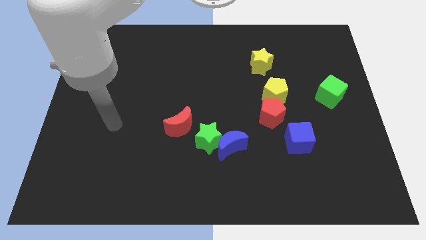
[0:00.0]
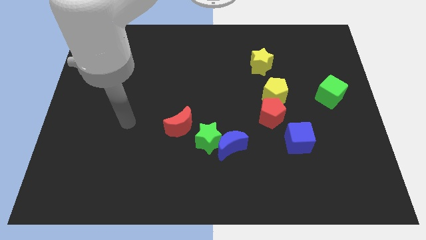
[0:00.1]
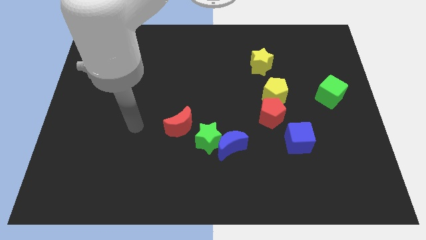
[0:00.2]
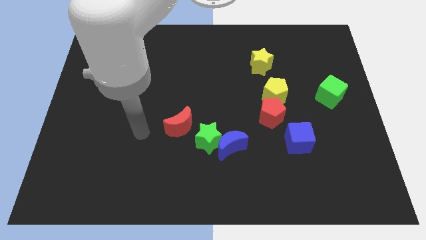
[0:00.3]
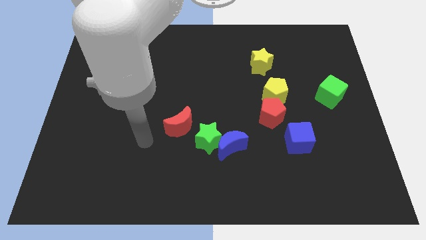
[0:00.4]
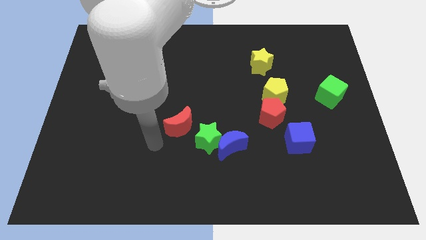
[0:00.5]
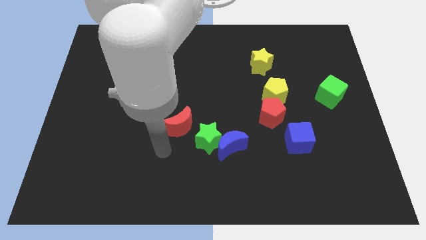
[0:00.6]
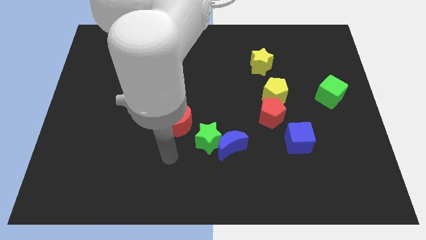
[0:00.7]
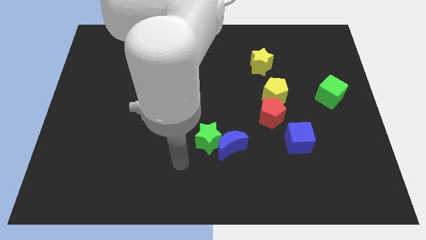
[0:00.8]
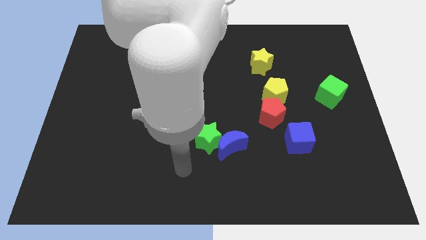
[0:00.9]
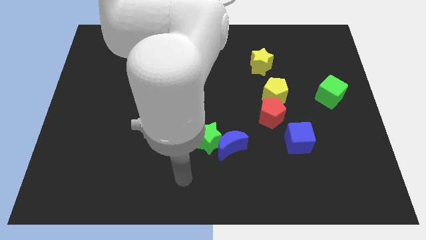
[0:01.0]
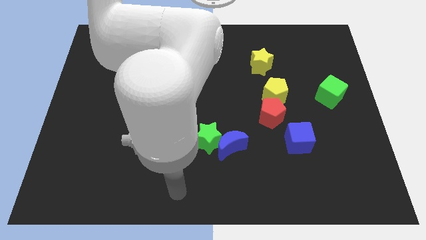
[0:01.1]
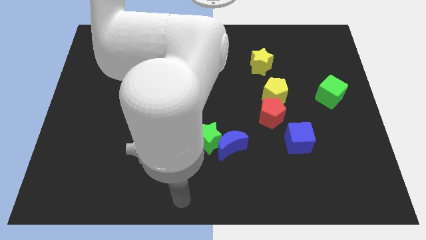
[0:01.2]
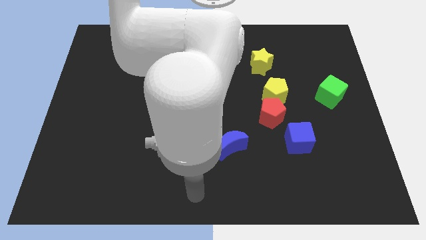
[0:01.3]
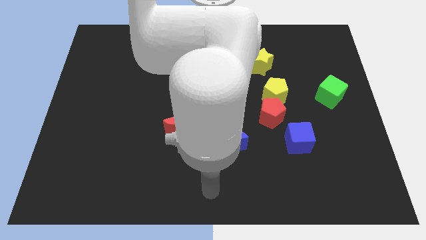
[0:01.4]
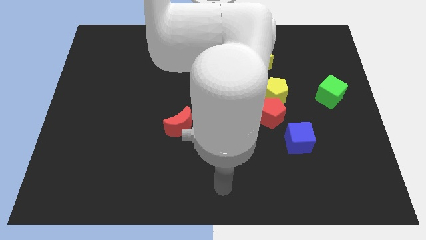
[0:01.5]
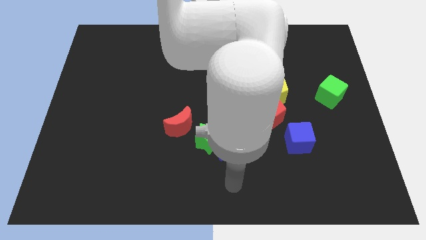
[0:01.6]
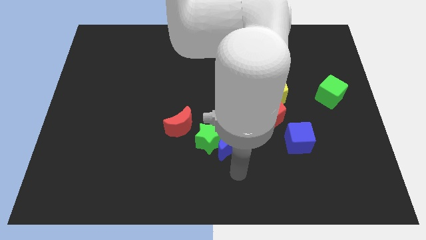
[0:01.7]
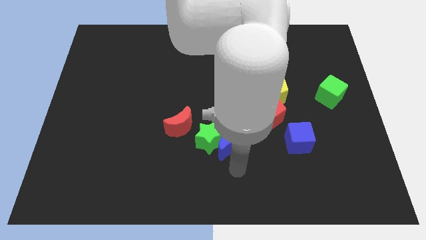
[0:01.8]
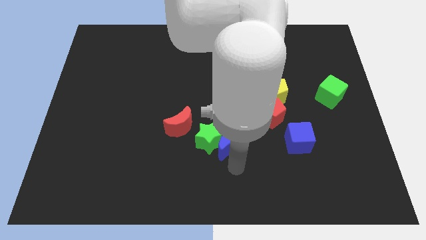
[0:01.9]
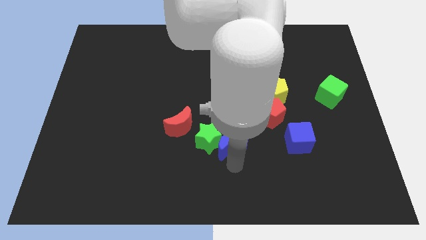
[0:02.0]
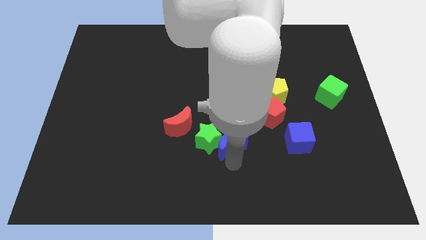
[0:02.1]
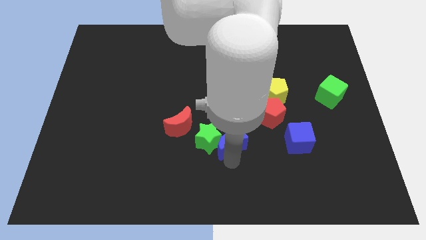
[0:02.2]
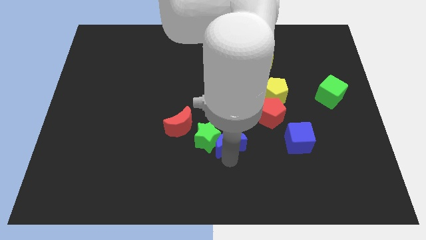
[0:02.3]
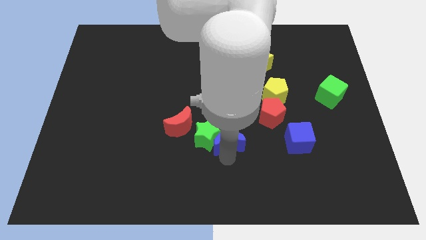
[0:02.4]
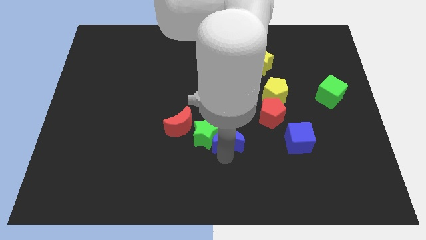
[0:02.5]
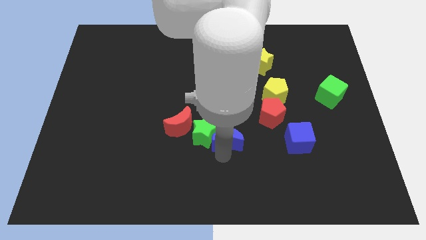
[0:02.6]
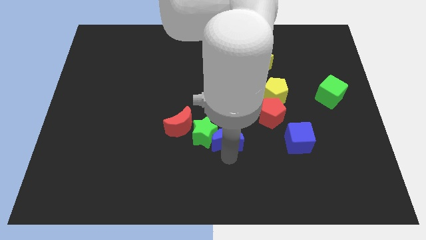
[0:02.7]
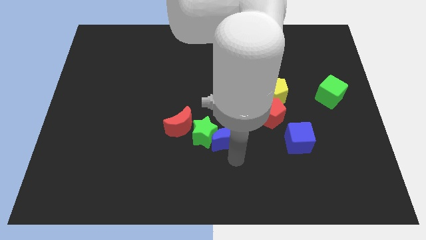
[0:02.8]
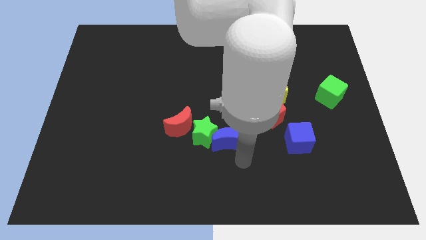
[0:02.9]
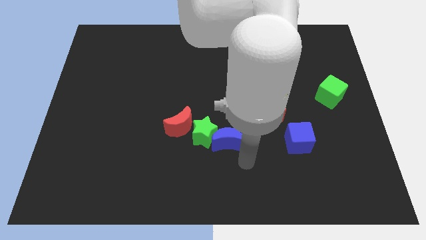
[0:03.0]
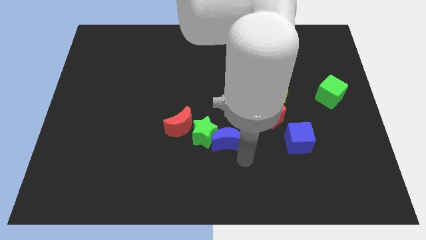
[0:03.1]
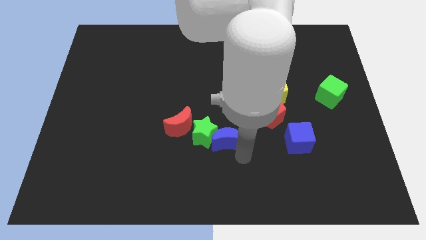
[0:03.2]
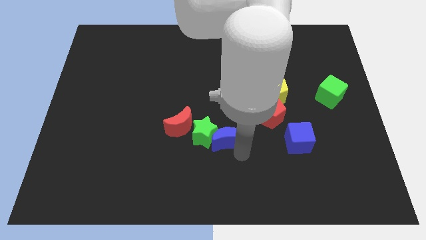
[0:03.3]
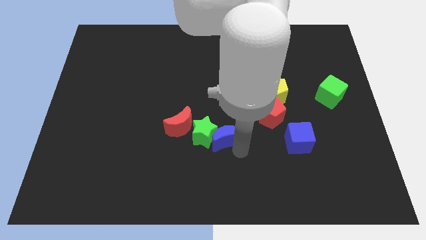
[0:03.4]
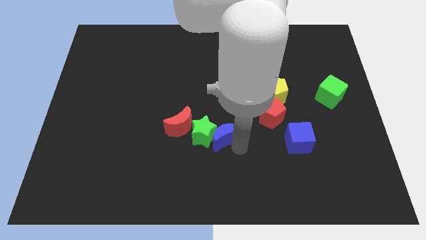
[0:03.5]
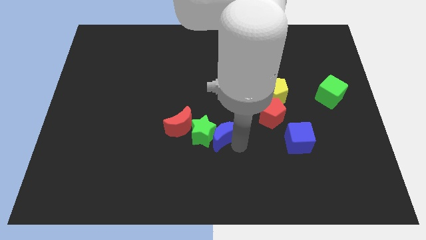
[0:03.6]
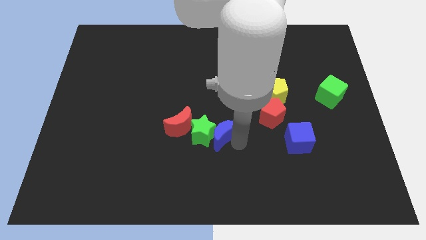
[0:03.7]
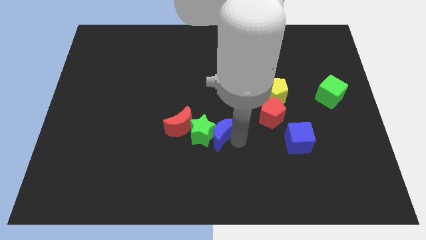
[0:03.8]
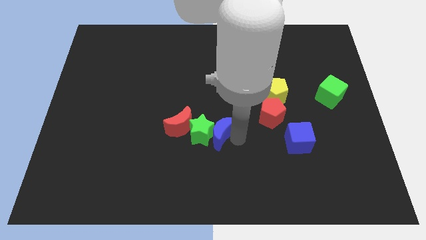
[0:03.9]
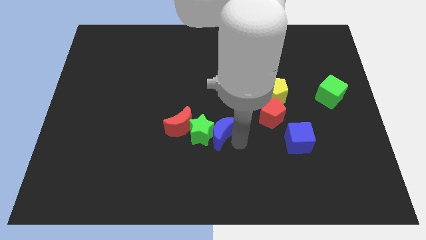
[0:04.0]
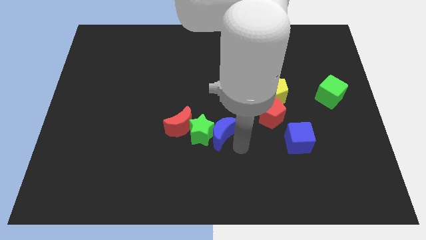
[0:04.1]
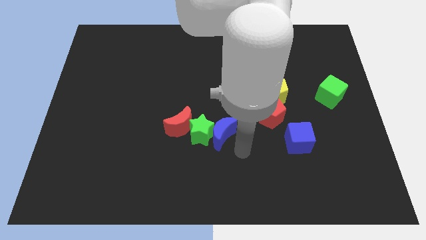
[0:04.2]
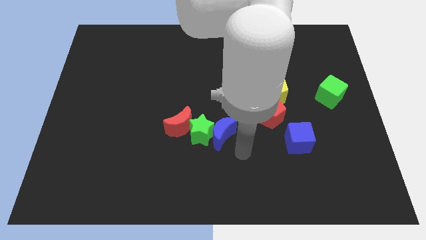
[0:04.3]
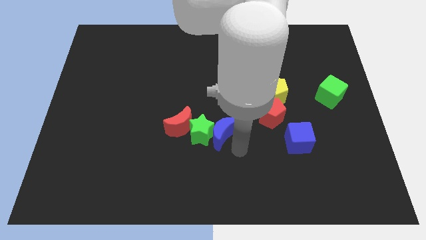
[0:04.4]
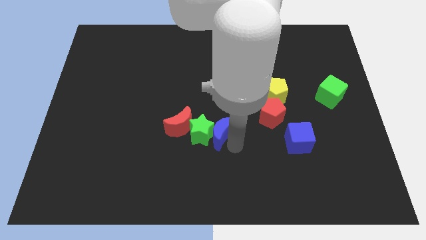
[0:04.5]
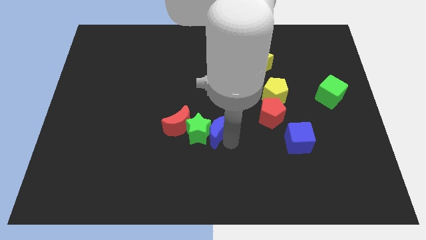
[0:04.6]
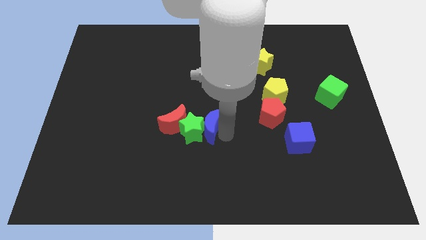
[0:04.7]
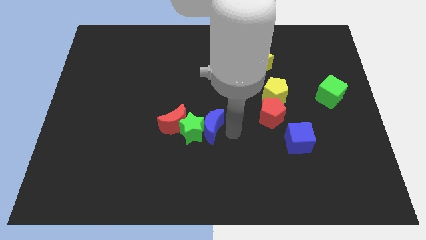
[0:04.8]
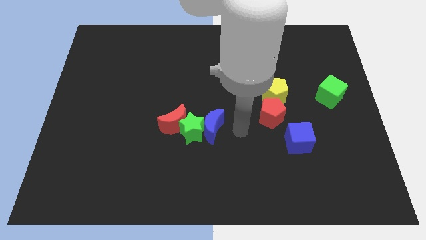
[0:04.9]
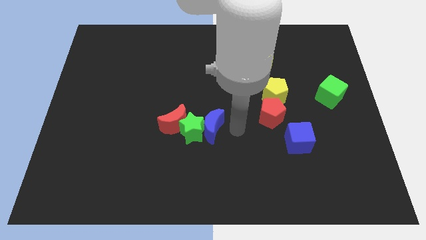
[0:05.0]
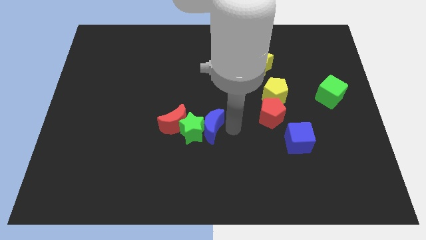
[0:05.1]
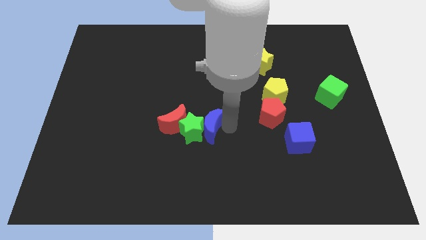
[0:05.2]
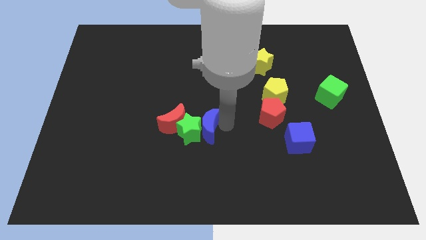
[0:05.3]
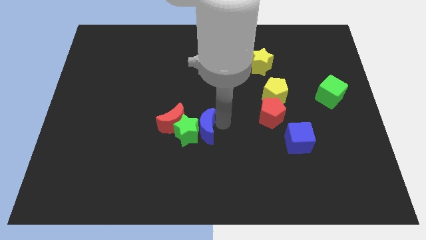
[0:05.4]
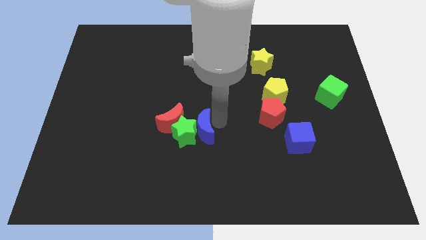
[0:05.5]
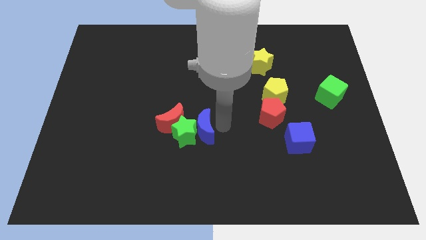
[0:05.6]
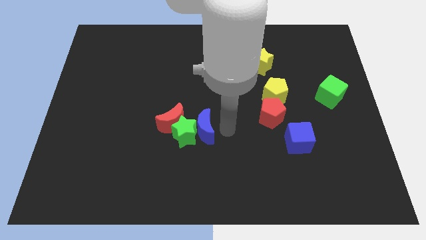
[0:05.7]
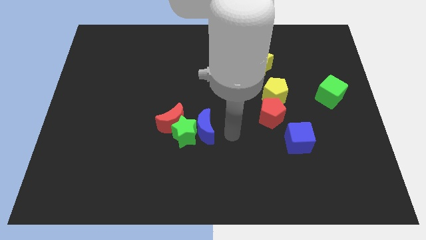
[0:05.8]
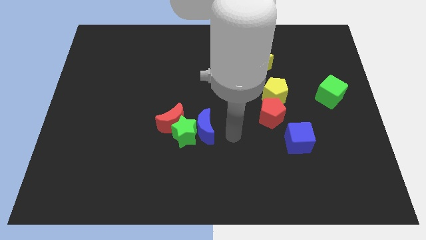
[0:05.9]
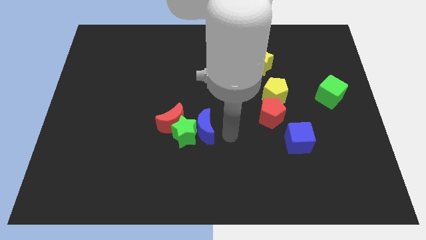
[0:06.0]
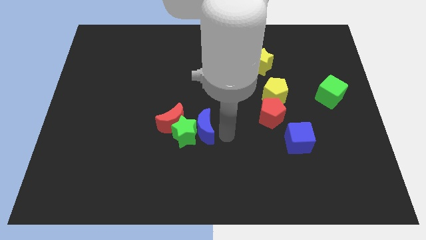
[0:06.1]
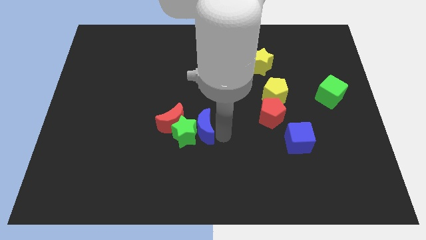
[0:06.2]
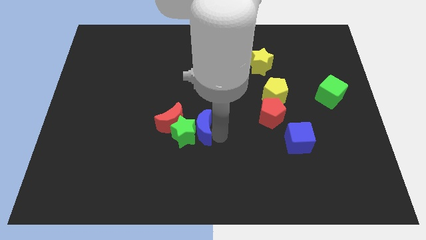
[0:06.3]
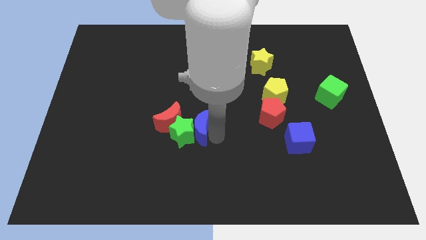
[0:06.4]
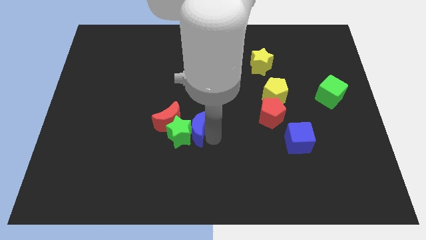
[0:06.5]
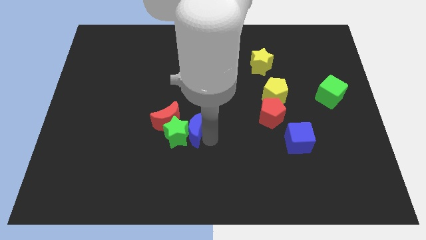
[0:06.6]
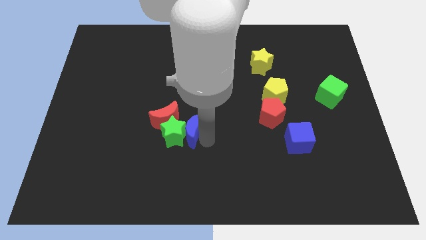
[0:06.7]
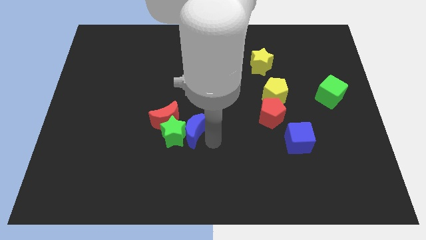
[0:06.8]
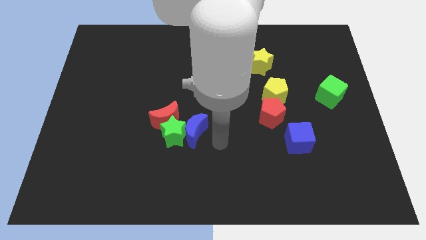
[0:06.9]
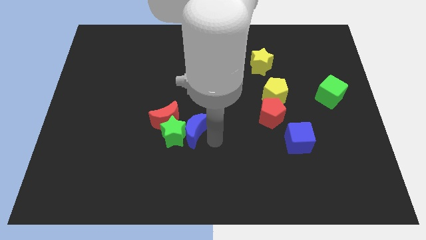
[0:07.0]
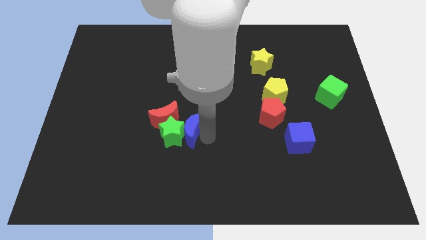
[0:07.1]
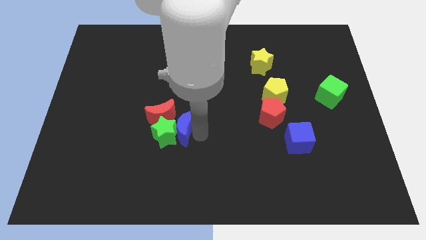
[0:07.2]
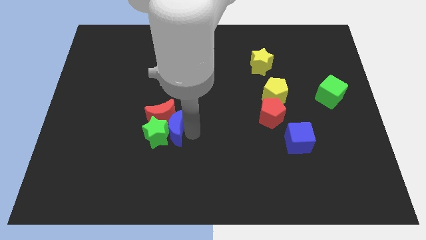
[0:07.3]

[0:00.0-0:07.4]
slide the blue moon towards the red moon

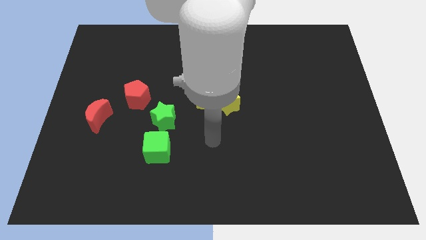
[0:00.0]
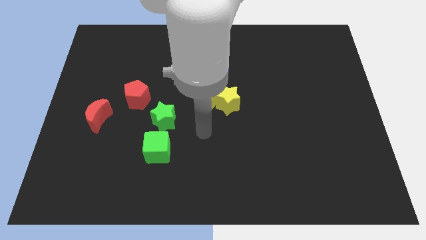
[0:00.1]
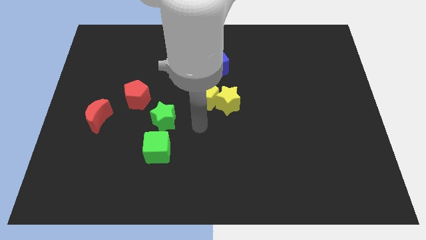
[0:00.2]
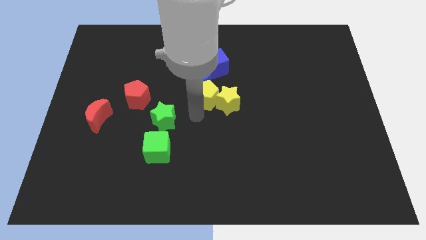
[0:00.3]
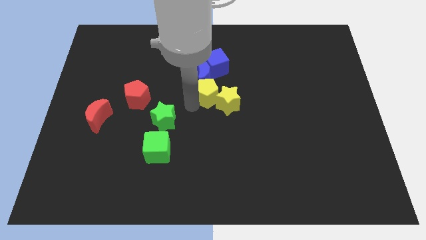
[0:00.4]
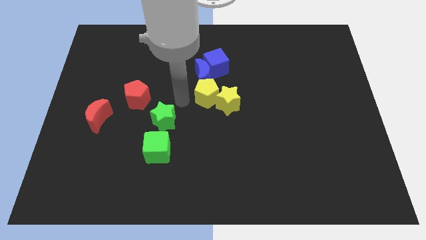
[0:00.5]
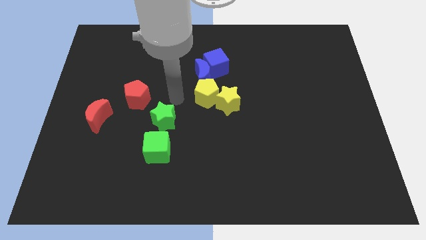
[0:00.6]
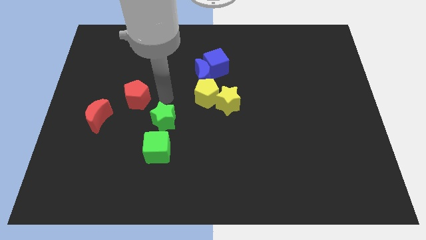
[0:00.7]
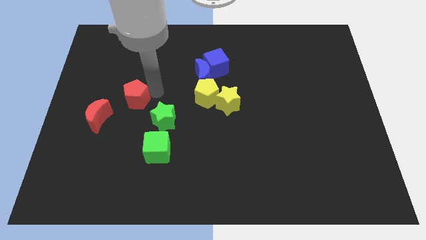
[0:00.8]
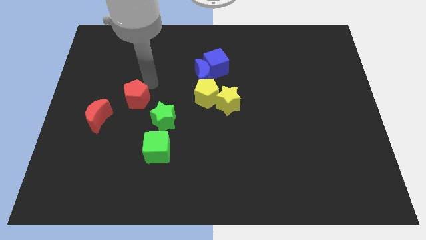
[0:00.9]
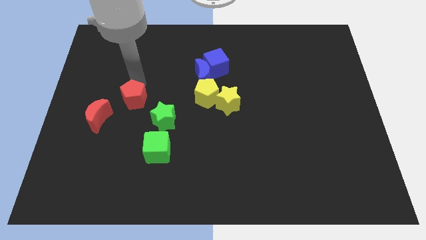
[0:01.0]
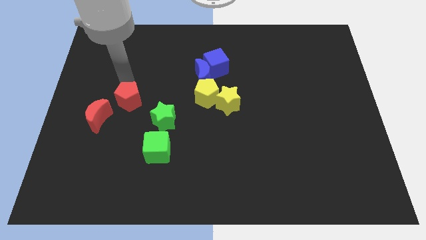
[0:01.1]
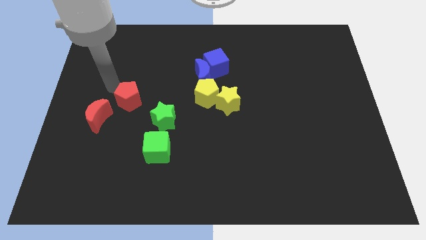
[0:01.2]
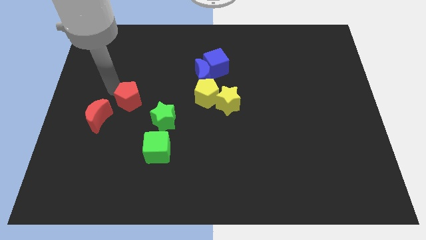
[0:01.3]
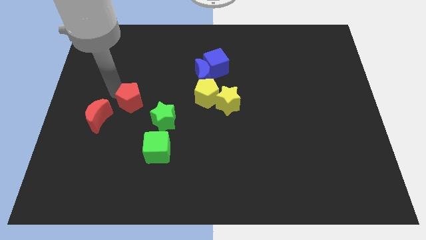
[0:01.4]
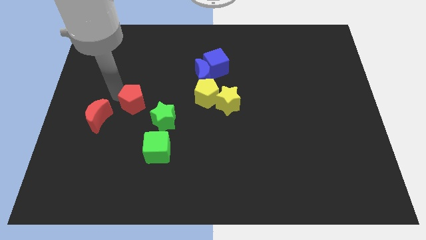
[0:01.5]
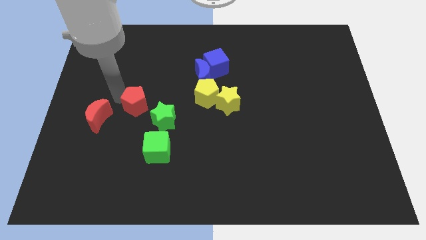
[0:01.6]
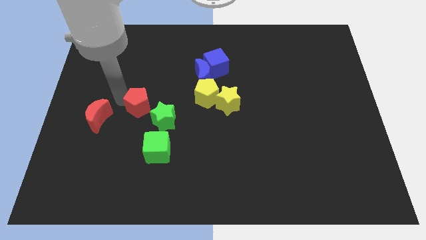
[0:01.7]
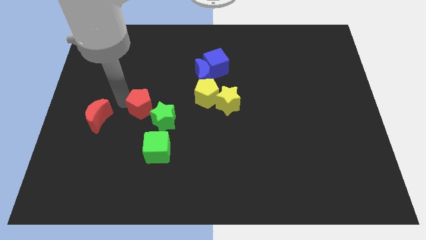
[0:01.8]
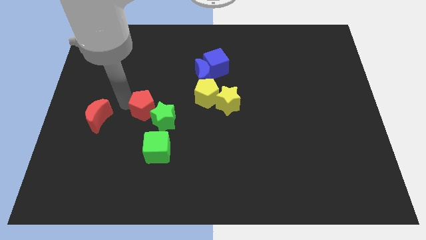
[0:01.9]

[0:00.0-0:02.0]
move the red pentagon next to the green star
